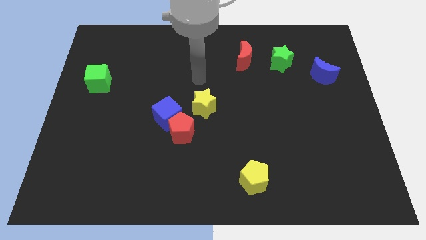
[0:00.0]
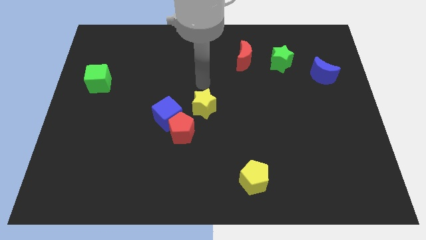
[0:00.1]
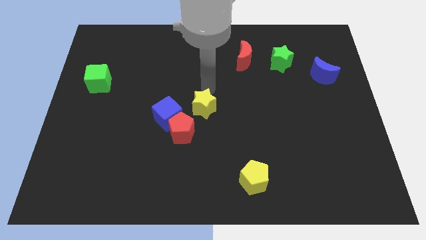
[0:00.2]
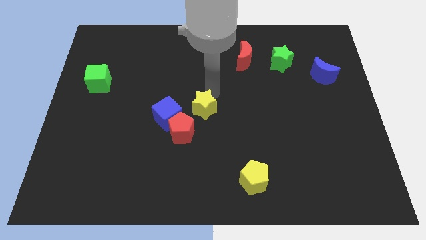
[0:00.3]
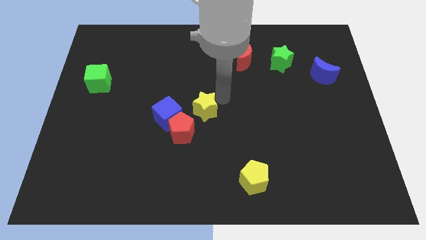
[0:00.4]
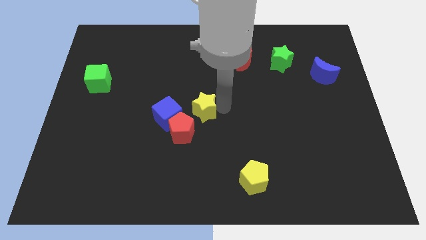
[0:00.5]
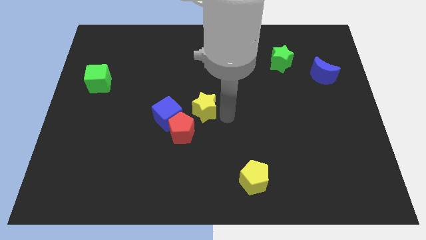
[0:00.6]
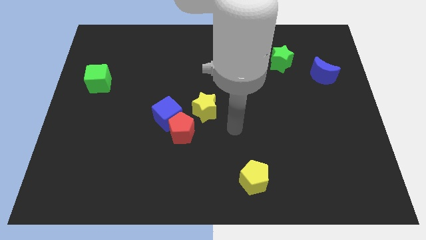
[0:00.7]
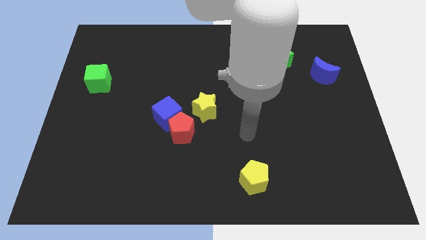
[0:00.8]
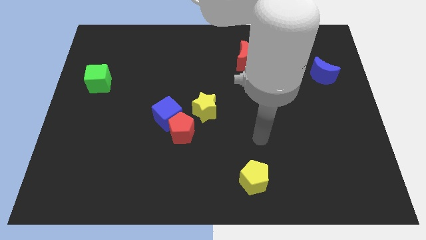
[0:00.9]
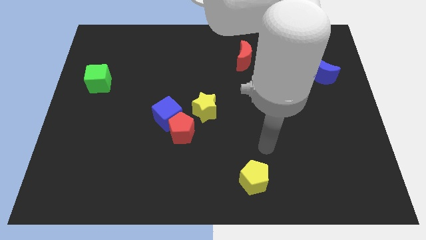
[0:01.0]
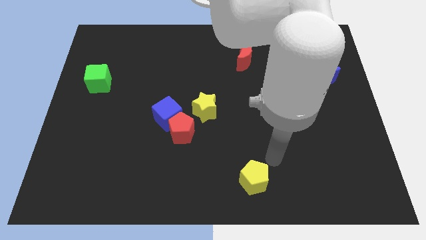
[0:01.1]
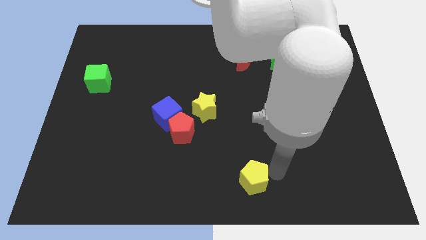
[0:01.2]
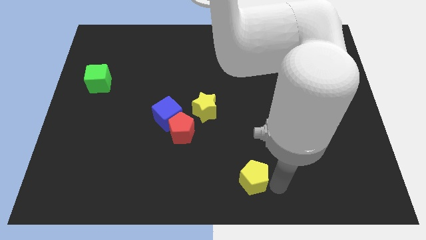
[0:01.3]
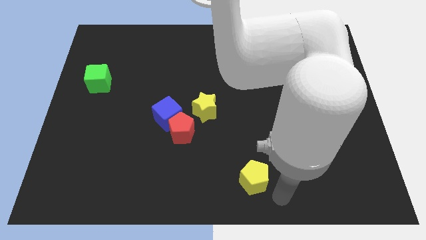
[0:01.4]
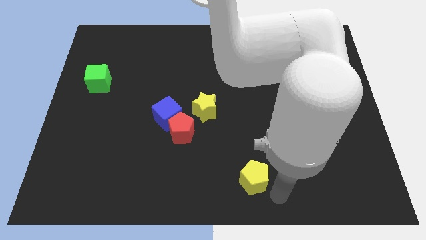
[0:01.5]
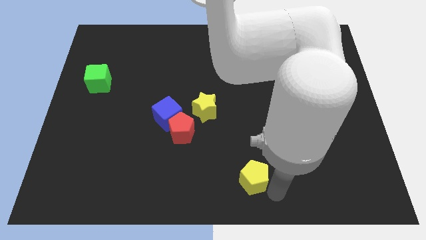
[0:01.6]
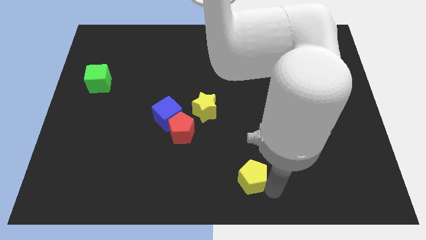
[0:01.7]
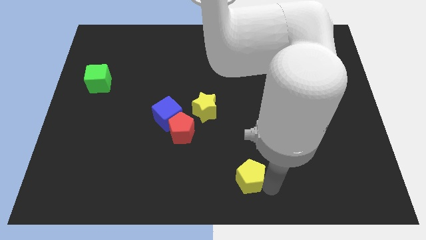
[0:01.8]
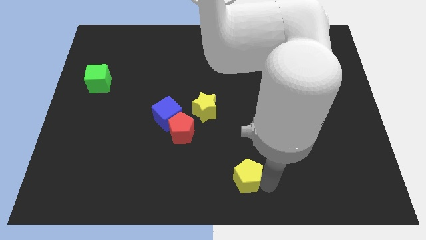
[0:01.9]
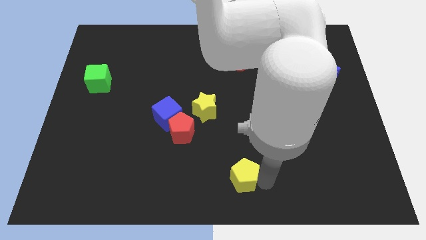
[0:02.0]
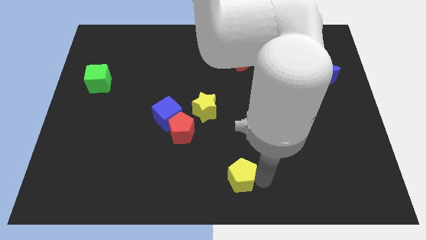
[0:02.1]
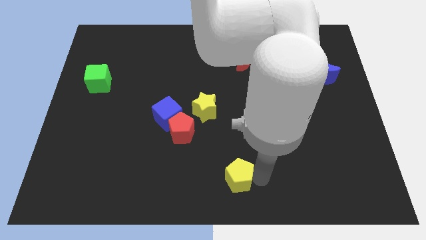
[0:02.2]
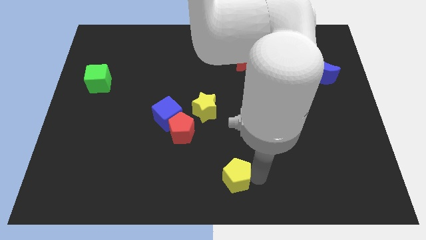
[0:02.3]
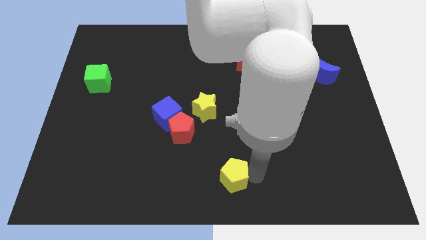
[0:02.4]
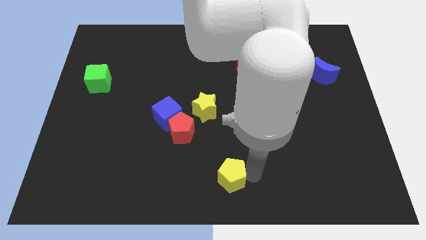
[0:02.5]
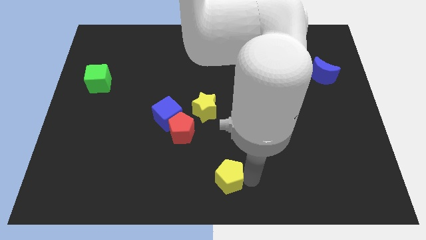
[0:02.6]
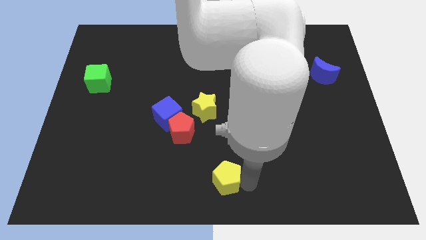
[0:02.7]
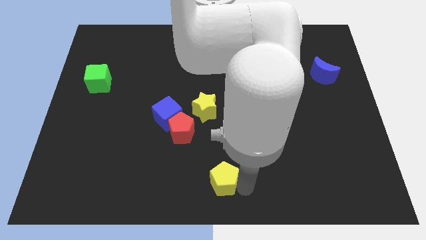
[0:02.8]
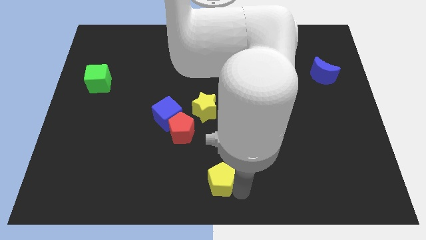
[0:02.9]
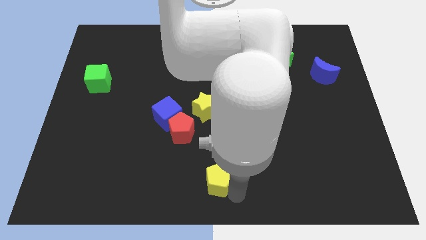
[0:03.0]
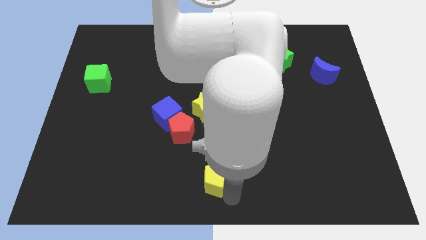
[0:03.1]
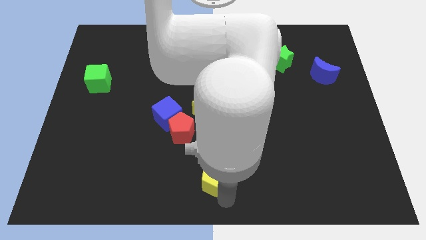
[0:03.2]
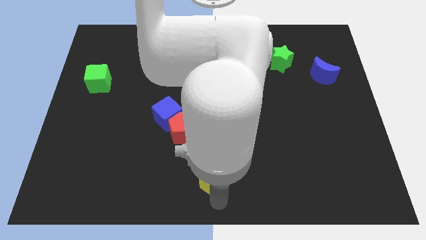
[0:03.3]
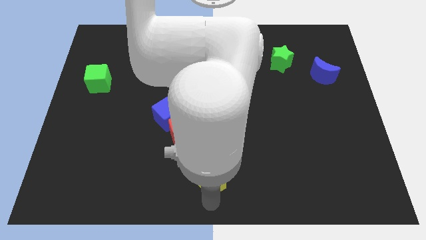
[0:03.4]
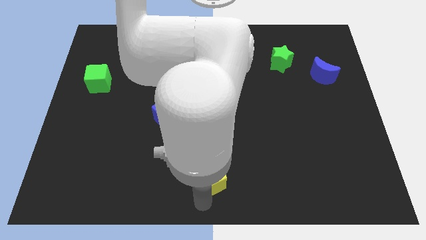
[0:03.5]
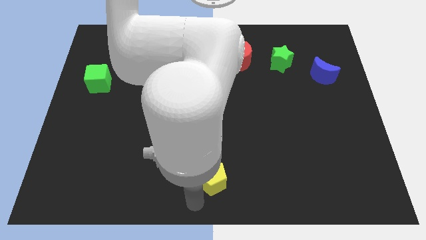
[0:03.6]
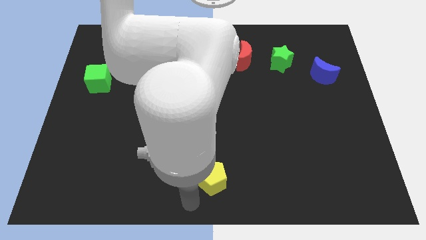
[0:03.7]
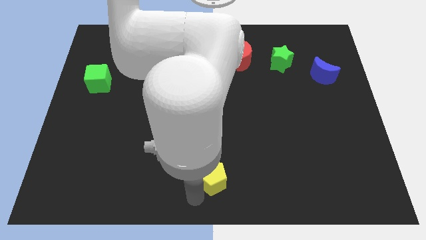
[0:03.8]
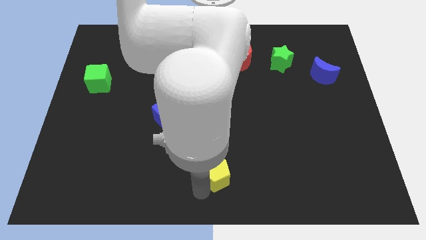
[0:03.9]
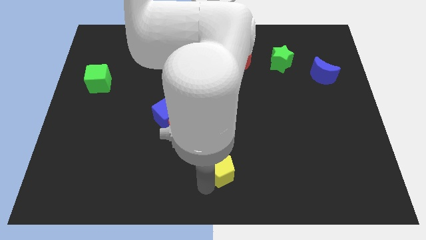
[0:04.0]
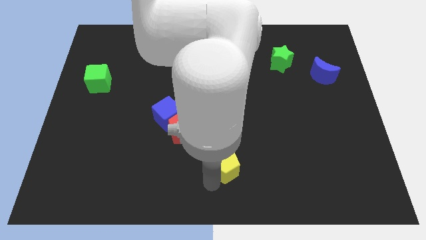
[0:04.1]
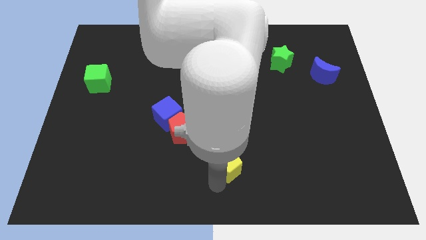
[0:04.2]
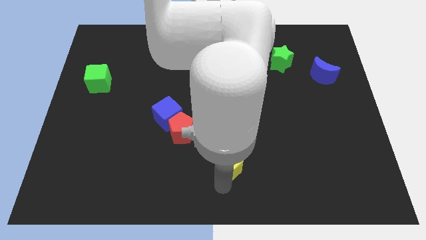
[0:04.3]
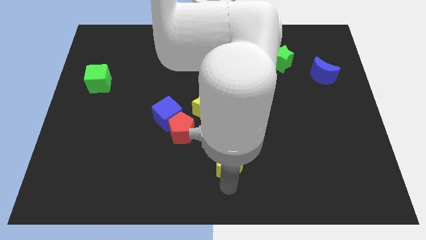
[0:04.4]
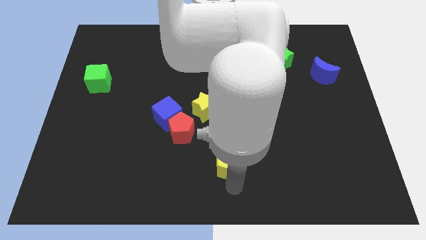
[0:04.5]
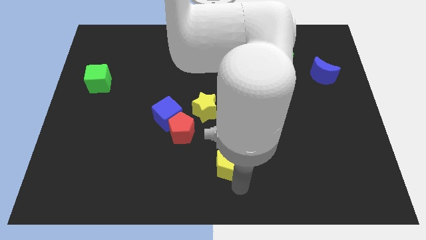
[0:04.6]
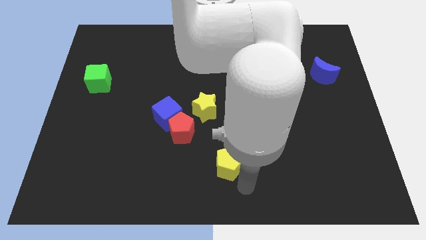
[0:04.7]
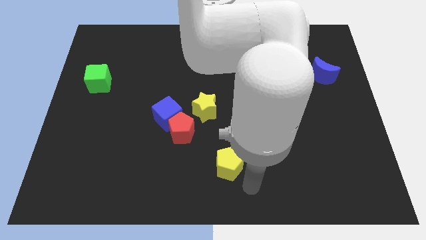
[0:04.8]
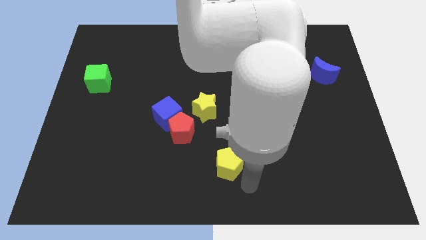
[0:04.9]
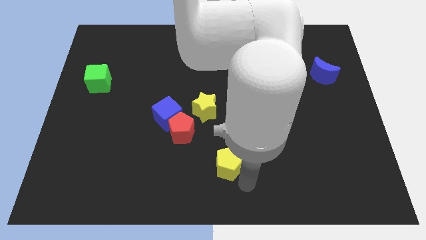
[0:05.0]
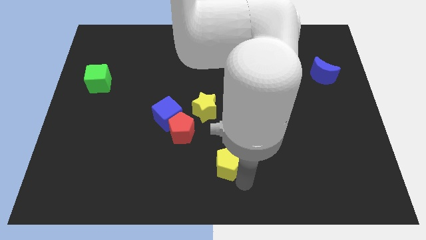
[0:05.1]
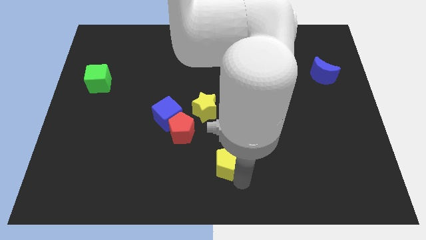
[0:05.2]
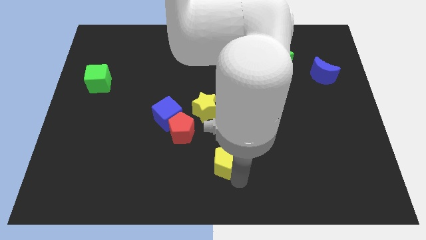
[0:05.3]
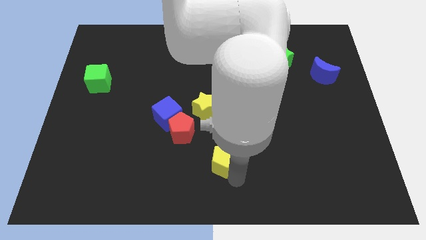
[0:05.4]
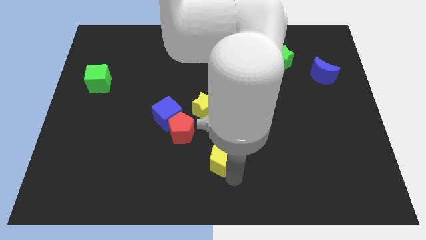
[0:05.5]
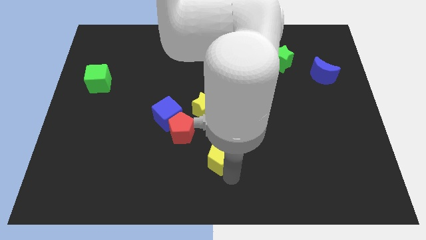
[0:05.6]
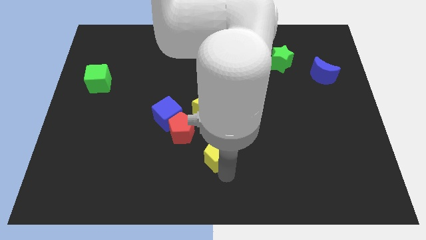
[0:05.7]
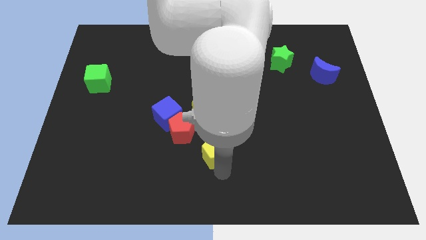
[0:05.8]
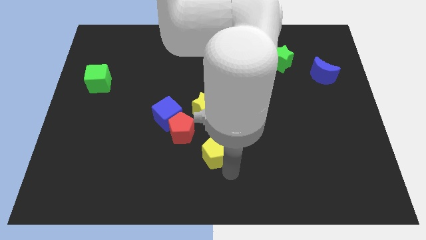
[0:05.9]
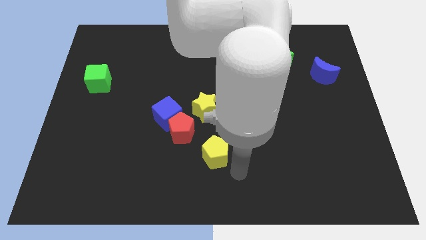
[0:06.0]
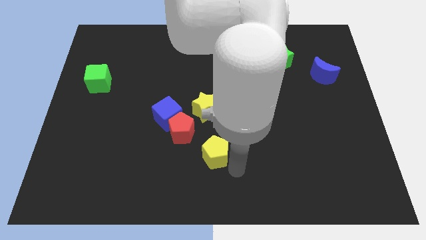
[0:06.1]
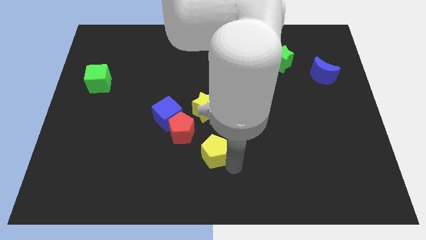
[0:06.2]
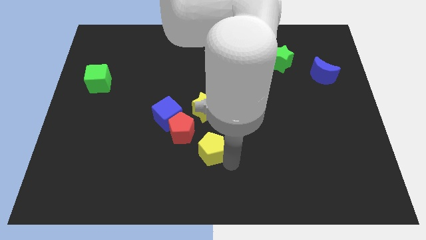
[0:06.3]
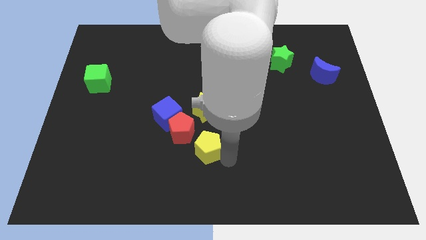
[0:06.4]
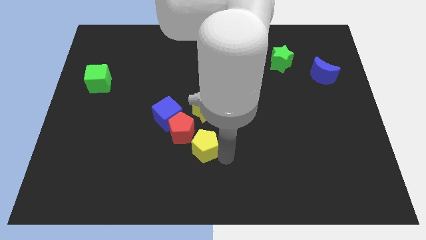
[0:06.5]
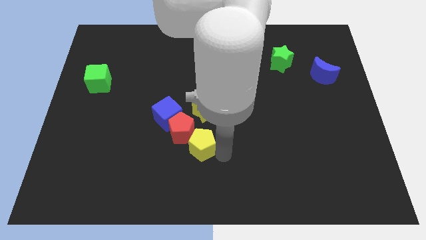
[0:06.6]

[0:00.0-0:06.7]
move the yellow pentagon close to the red pentagon

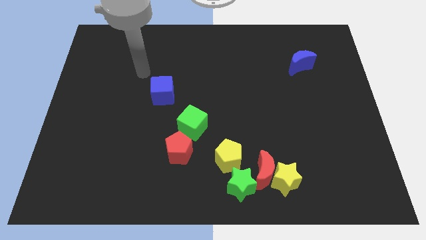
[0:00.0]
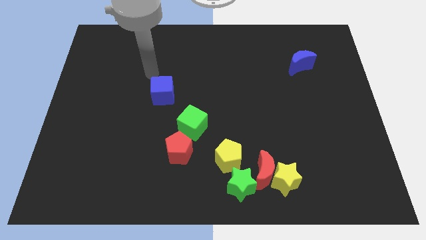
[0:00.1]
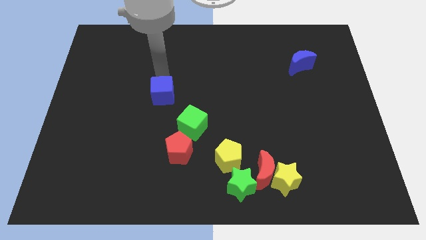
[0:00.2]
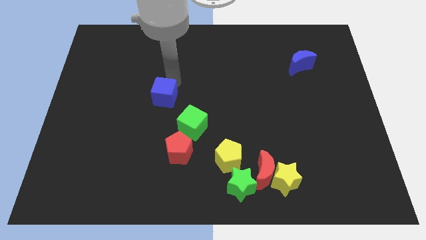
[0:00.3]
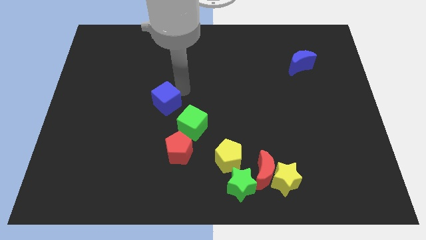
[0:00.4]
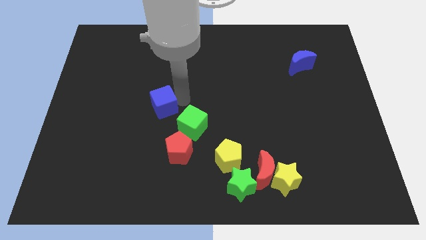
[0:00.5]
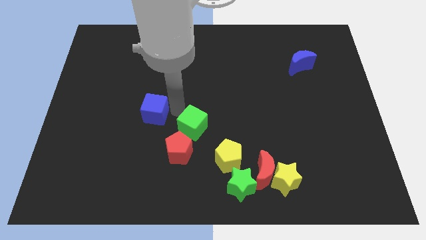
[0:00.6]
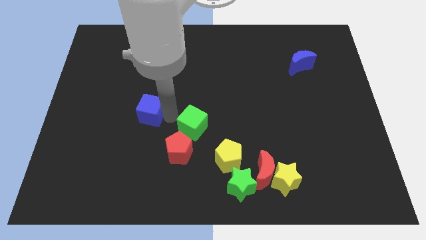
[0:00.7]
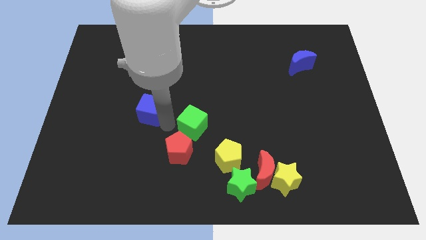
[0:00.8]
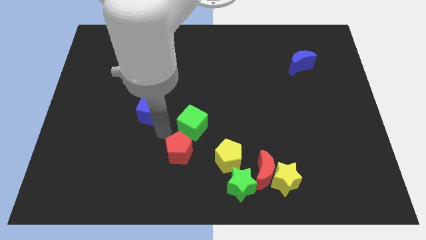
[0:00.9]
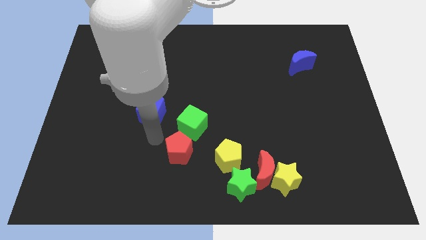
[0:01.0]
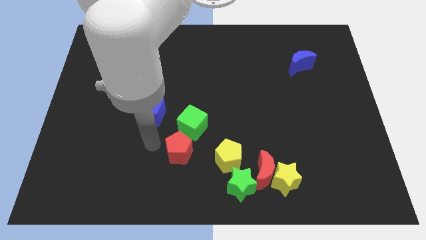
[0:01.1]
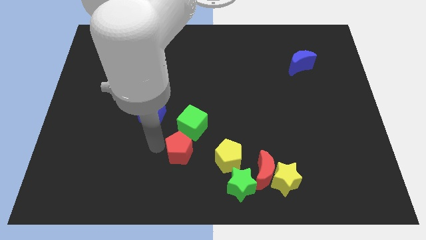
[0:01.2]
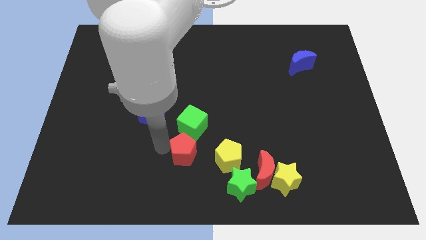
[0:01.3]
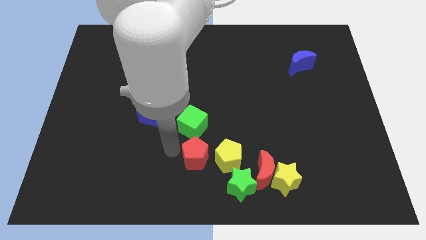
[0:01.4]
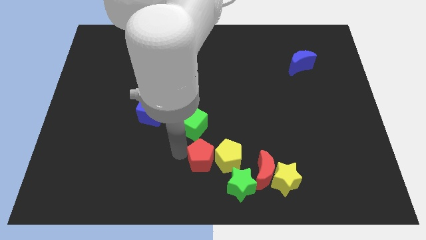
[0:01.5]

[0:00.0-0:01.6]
slide the red pentagon towards the yellow pentagon
